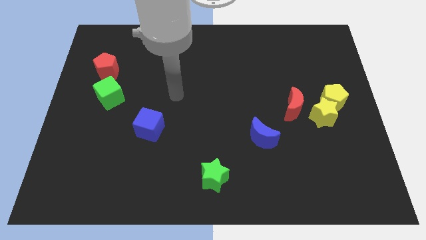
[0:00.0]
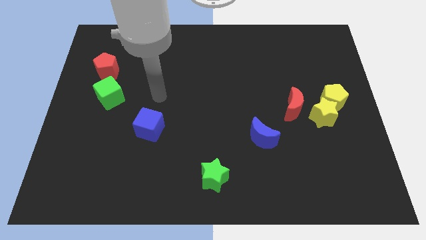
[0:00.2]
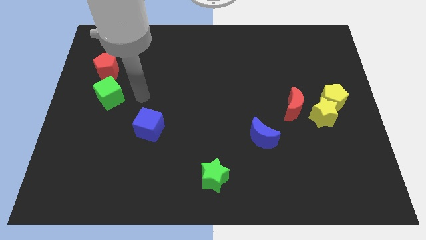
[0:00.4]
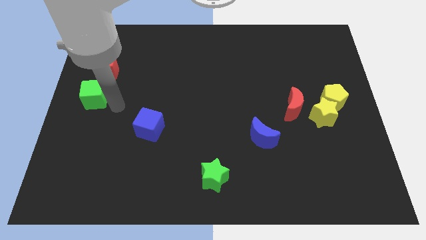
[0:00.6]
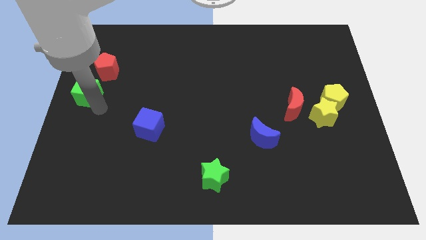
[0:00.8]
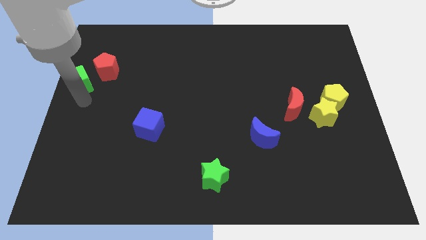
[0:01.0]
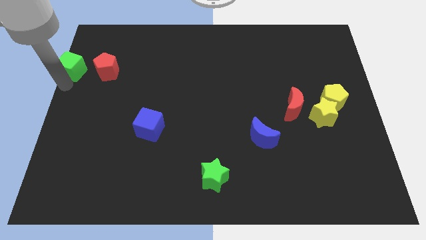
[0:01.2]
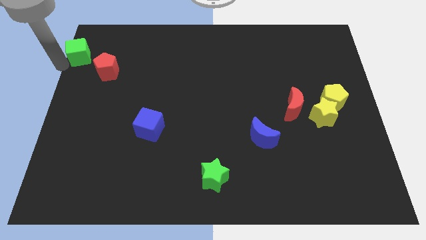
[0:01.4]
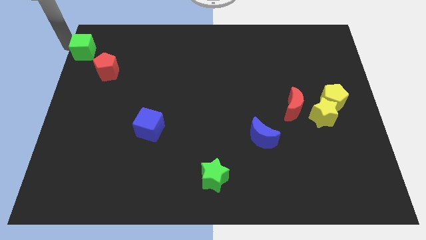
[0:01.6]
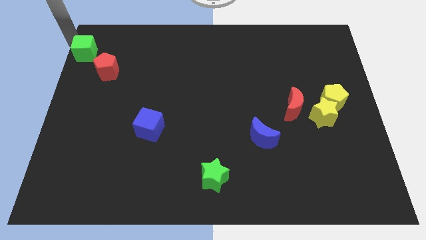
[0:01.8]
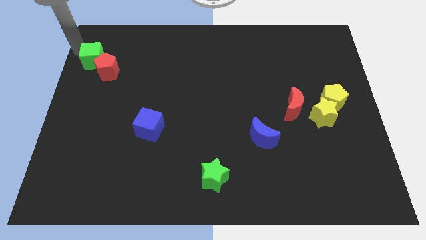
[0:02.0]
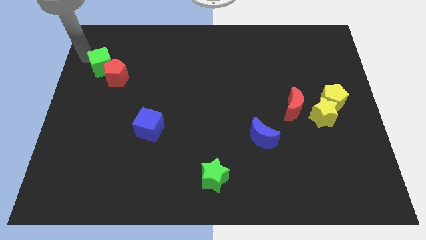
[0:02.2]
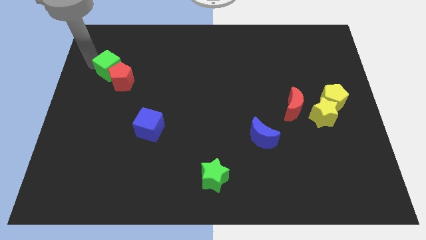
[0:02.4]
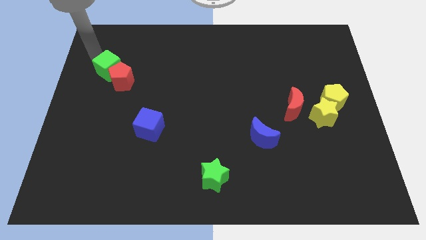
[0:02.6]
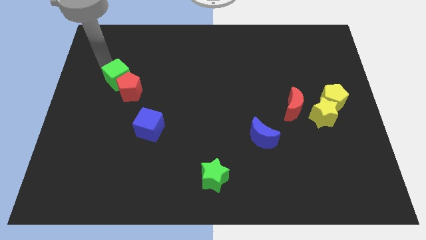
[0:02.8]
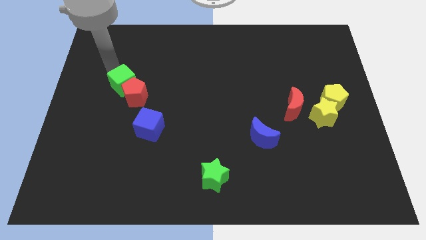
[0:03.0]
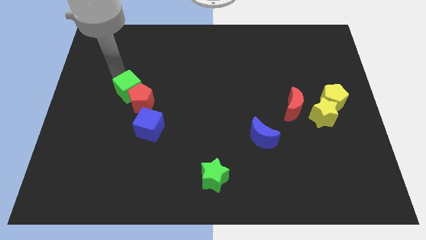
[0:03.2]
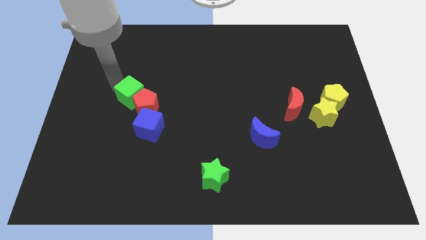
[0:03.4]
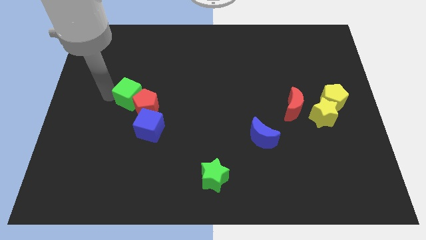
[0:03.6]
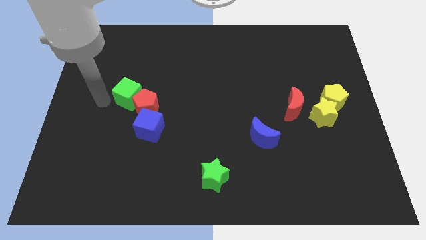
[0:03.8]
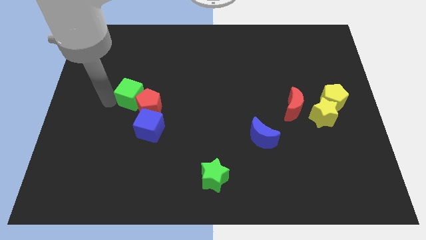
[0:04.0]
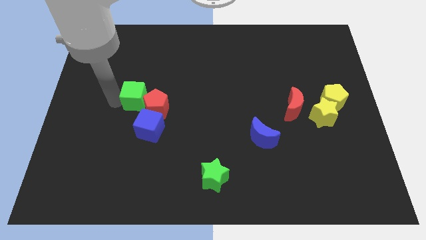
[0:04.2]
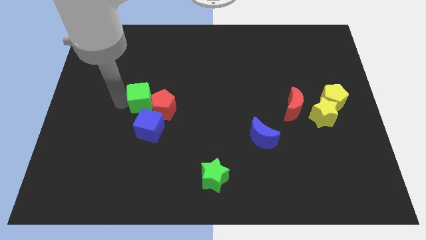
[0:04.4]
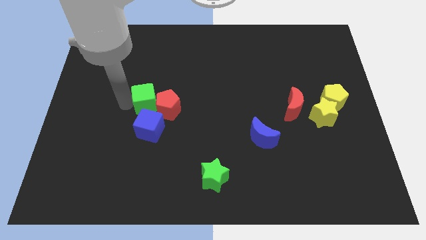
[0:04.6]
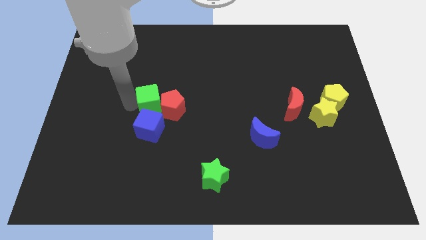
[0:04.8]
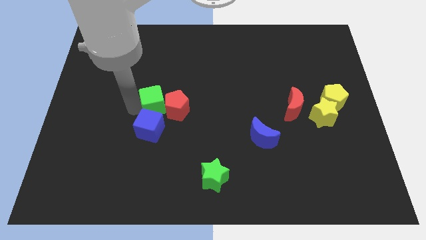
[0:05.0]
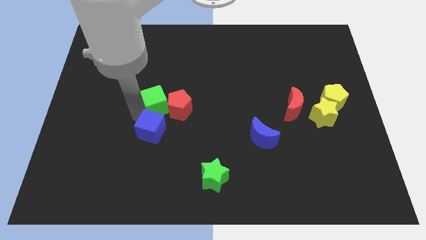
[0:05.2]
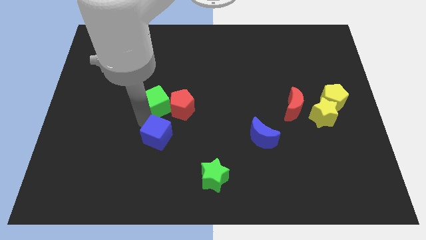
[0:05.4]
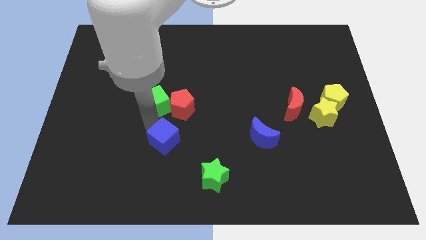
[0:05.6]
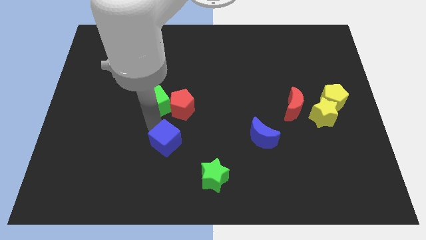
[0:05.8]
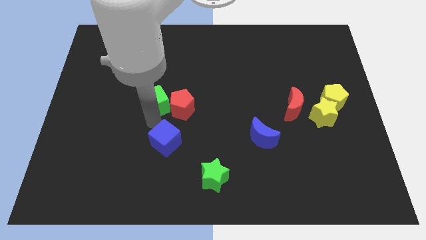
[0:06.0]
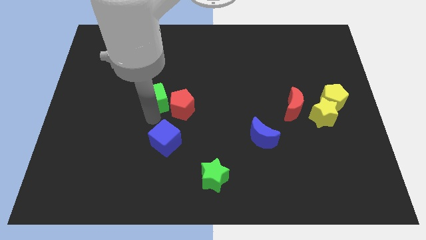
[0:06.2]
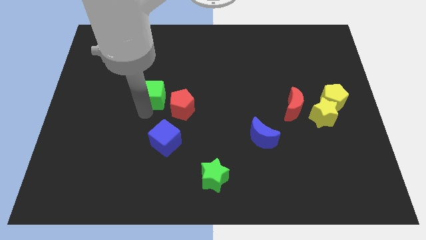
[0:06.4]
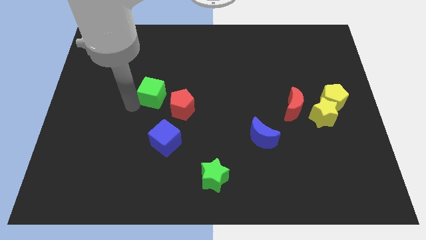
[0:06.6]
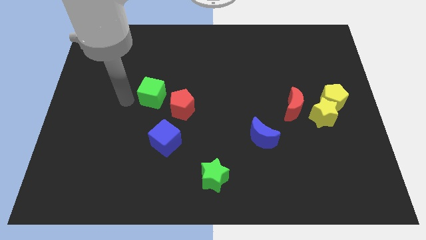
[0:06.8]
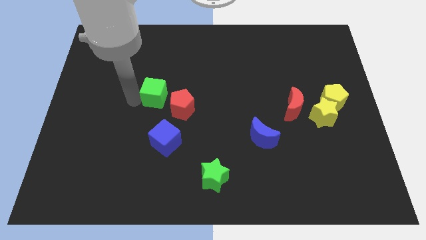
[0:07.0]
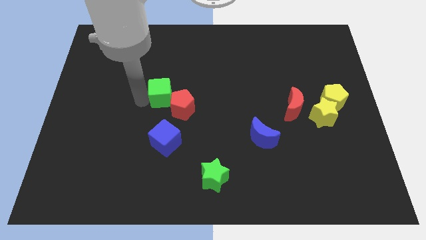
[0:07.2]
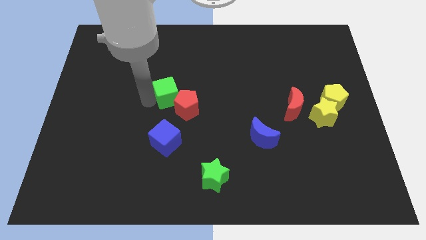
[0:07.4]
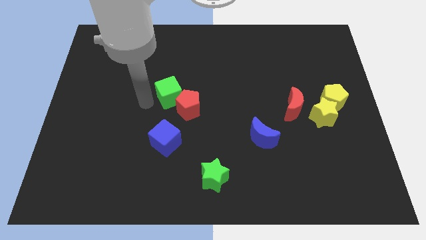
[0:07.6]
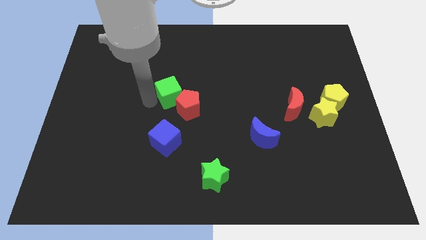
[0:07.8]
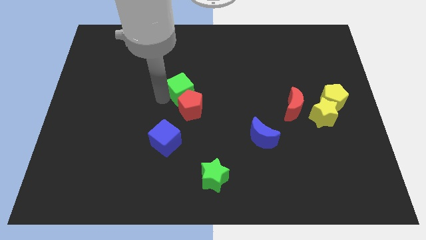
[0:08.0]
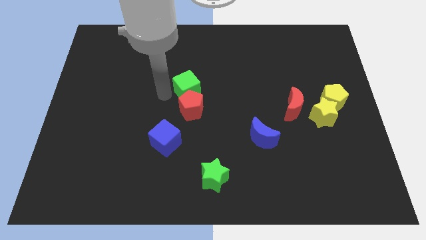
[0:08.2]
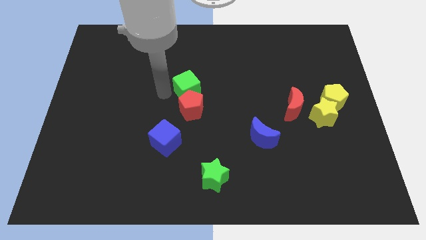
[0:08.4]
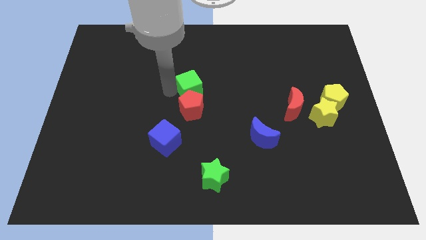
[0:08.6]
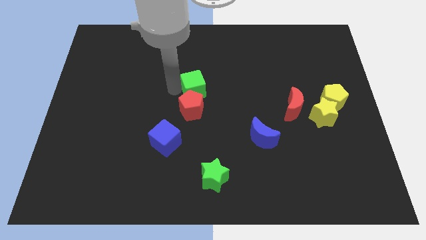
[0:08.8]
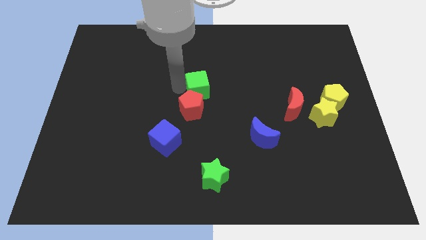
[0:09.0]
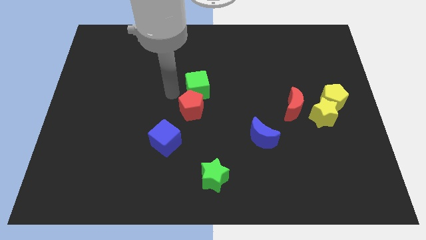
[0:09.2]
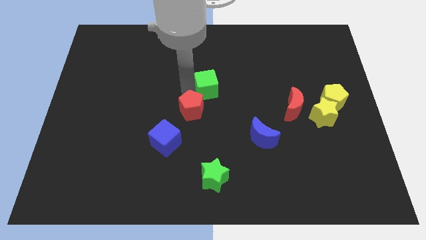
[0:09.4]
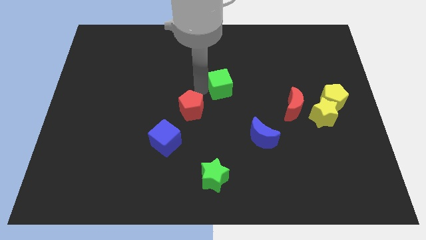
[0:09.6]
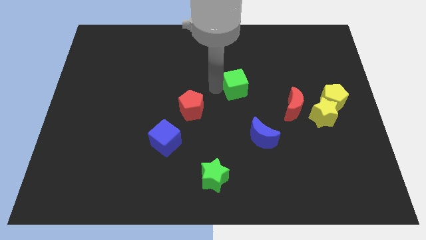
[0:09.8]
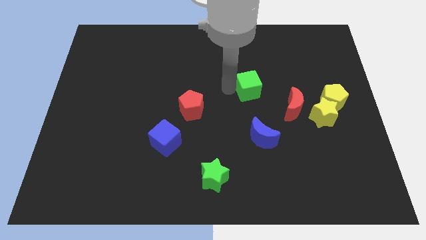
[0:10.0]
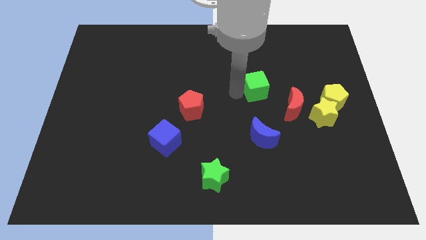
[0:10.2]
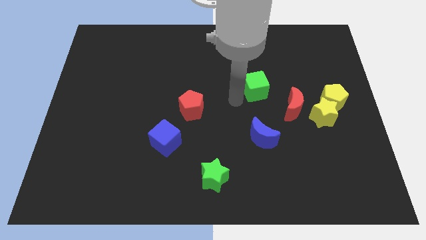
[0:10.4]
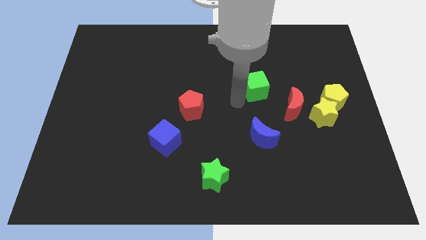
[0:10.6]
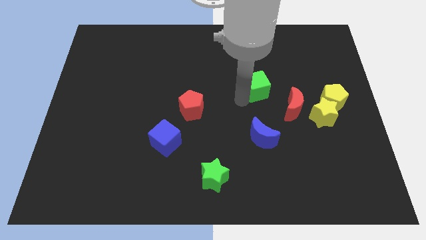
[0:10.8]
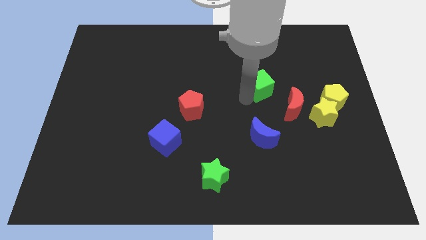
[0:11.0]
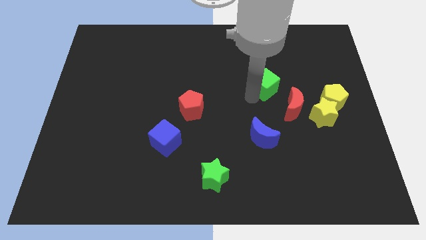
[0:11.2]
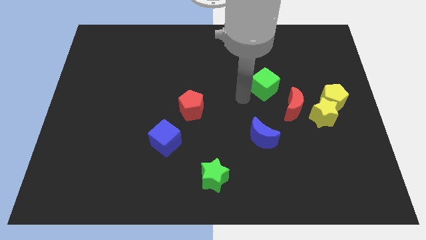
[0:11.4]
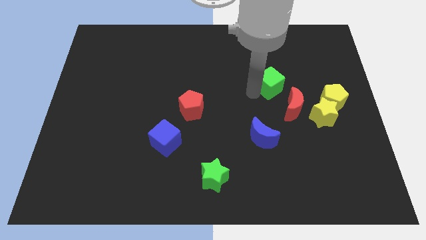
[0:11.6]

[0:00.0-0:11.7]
push the green cube to the top of the red moon

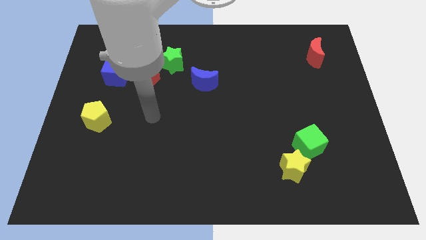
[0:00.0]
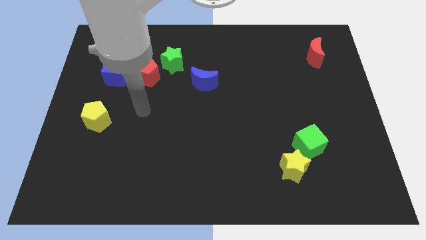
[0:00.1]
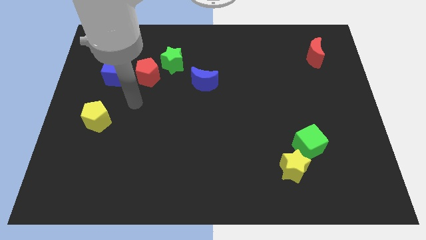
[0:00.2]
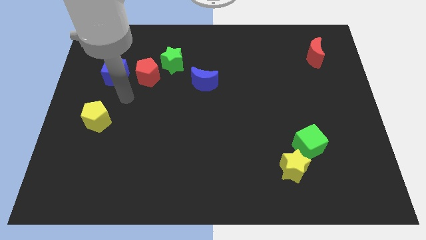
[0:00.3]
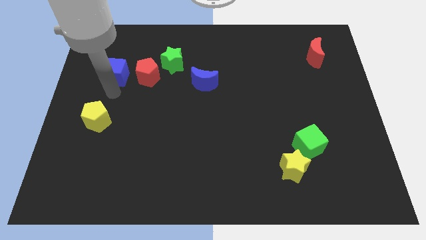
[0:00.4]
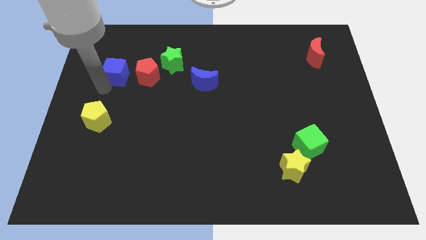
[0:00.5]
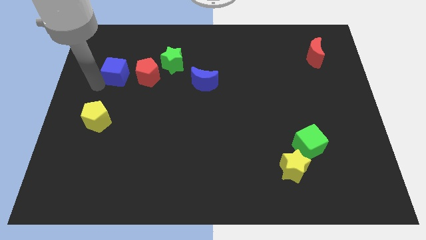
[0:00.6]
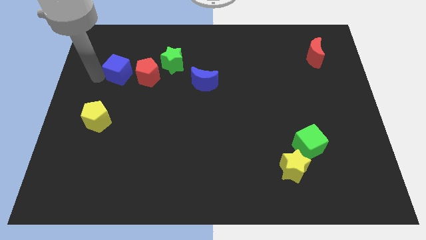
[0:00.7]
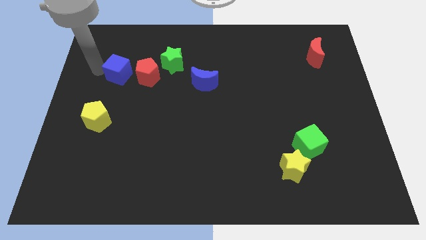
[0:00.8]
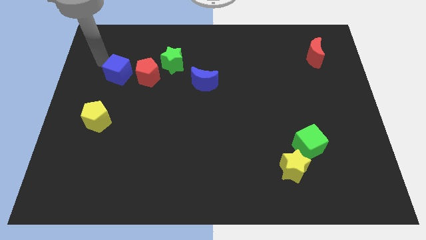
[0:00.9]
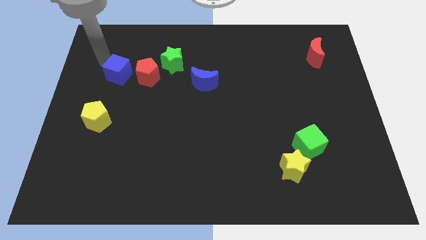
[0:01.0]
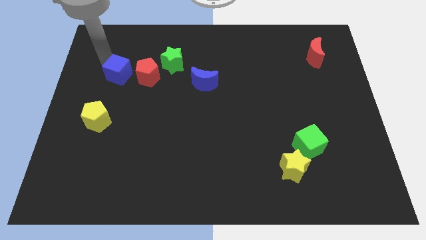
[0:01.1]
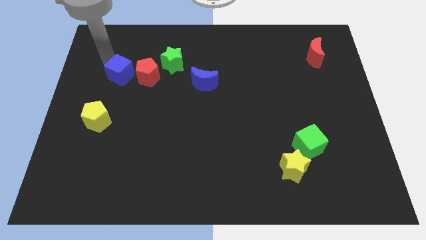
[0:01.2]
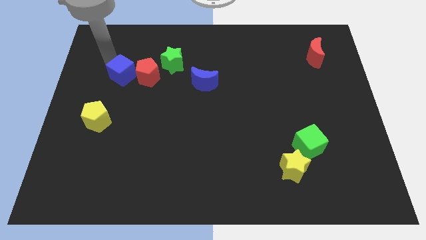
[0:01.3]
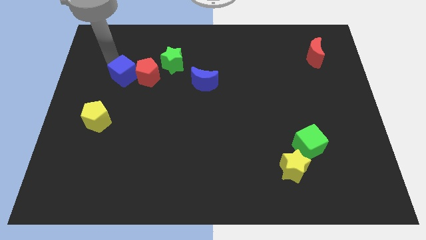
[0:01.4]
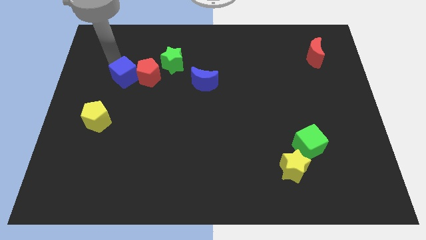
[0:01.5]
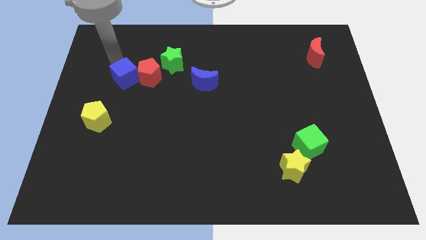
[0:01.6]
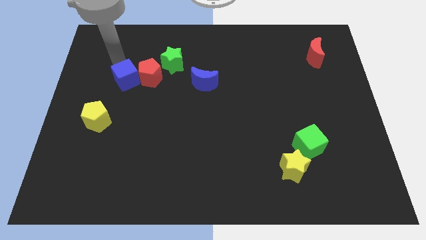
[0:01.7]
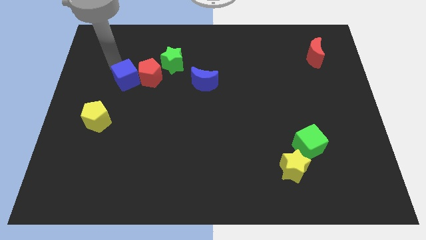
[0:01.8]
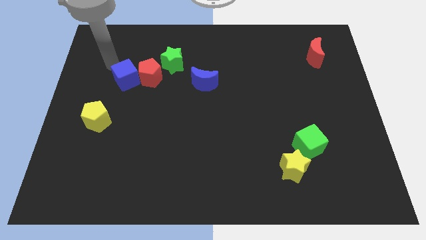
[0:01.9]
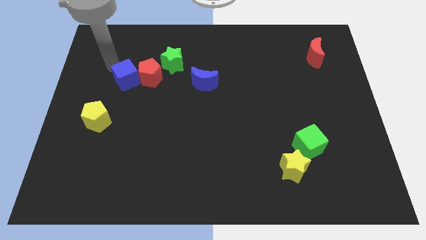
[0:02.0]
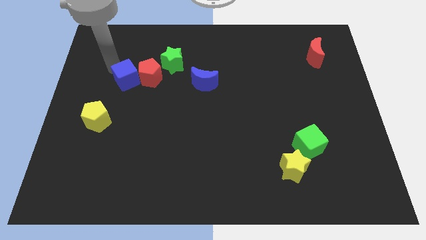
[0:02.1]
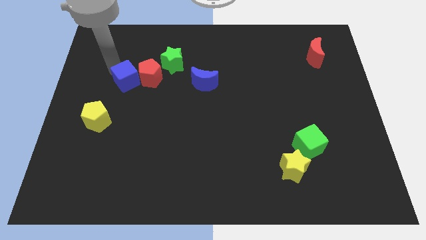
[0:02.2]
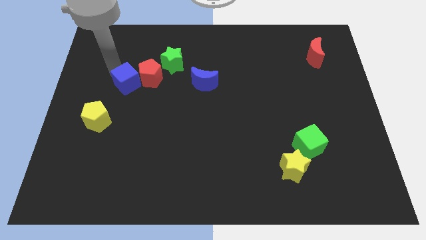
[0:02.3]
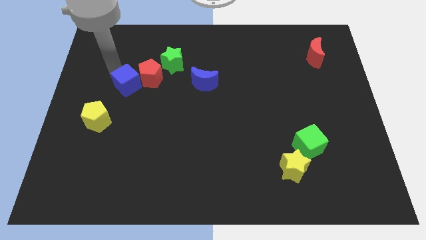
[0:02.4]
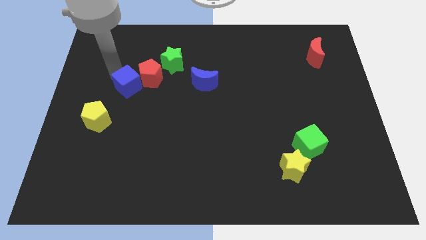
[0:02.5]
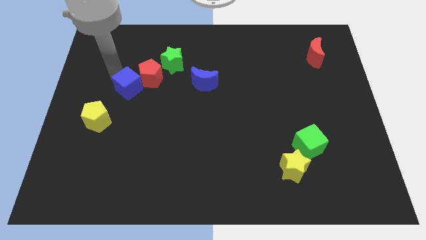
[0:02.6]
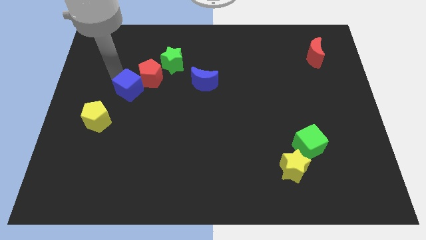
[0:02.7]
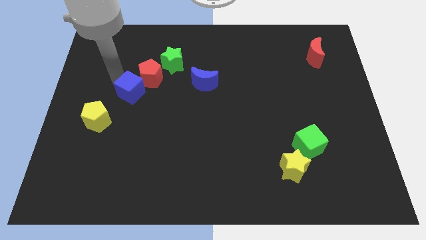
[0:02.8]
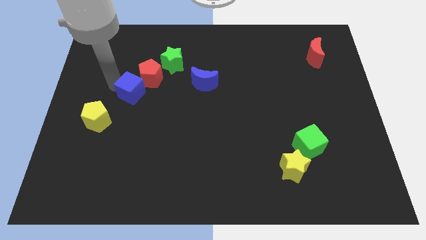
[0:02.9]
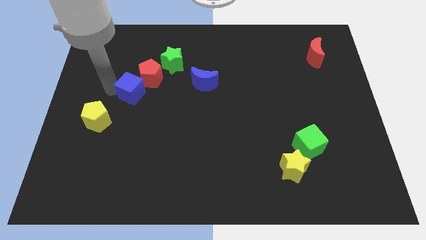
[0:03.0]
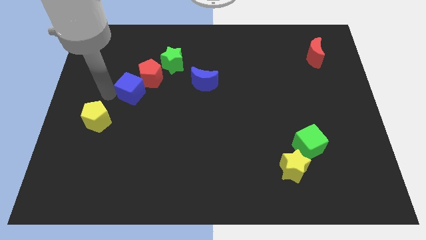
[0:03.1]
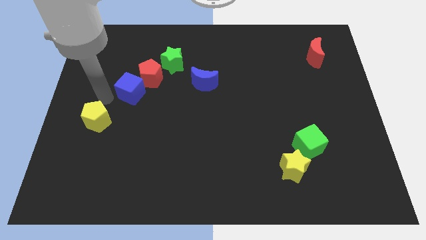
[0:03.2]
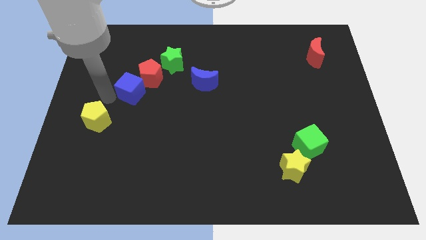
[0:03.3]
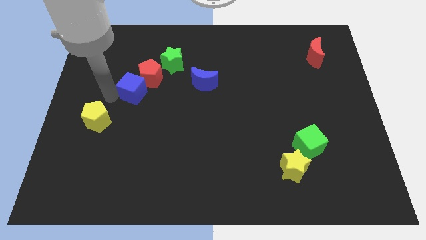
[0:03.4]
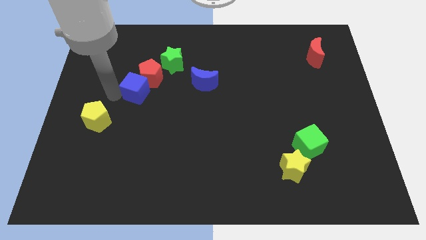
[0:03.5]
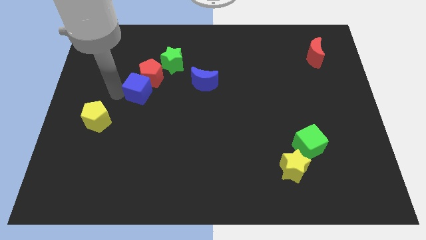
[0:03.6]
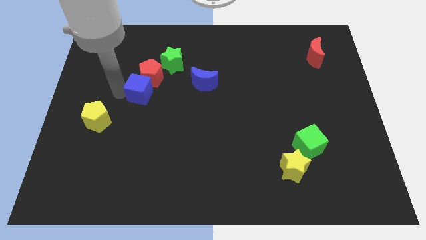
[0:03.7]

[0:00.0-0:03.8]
push the blue cube to the left side of the blue moon
